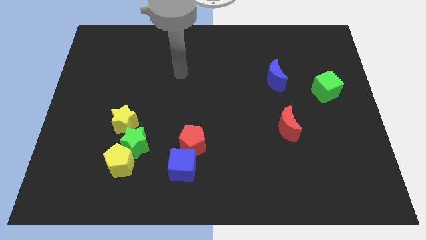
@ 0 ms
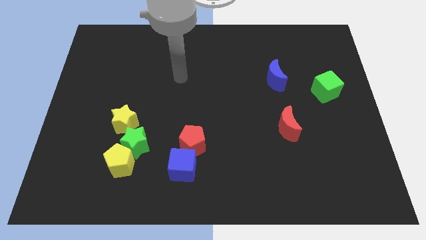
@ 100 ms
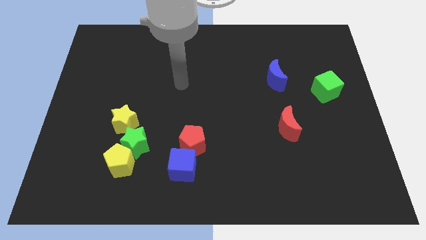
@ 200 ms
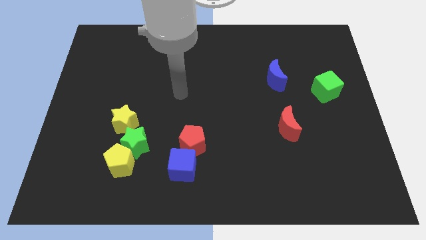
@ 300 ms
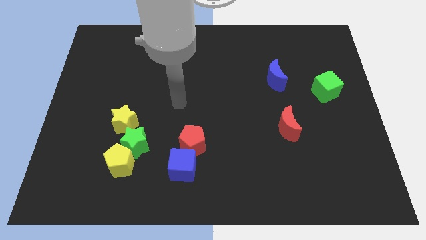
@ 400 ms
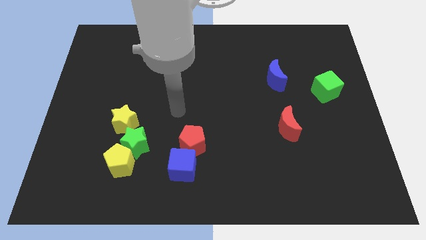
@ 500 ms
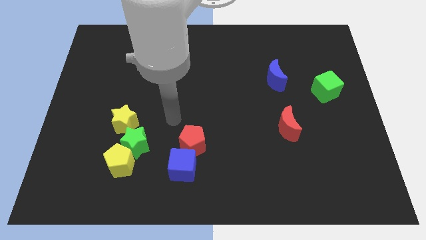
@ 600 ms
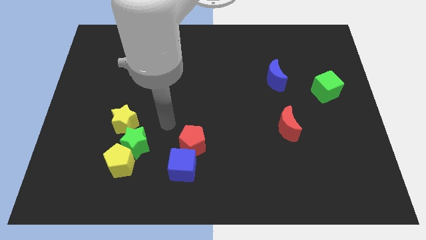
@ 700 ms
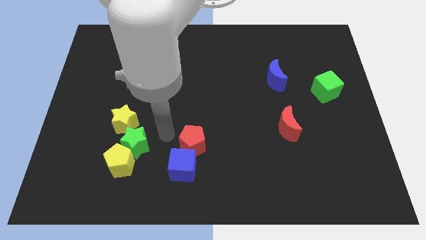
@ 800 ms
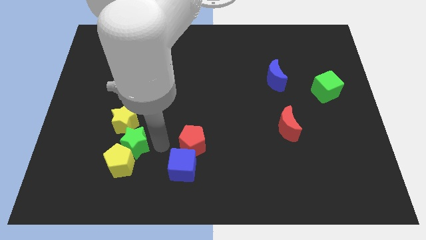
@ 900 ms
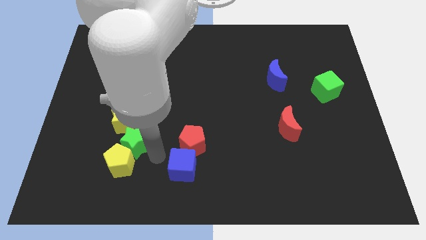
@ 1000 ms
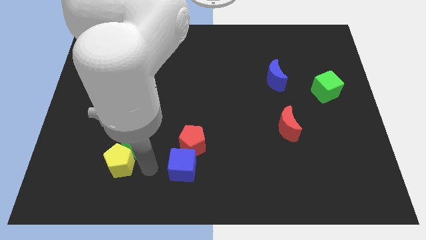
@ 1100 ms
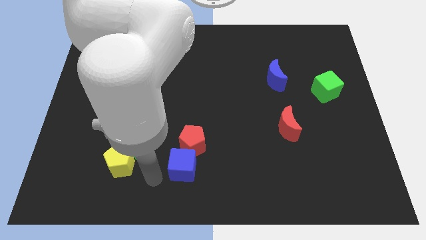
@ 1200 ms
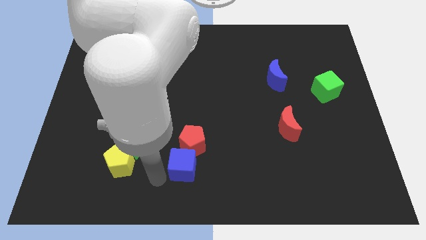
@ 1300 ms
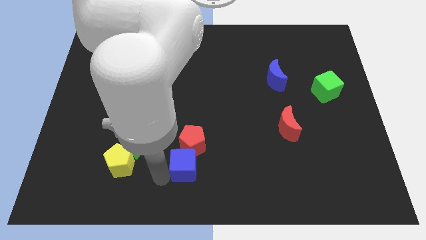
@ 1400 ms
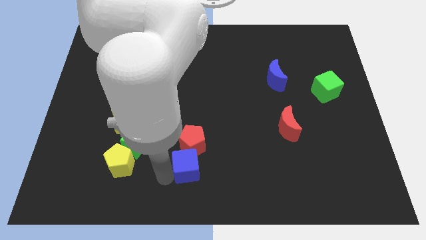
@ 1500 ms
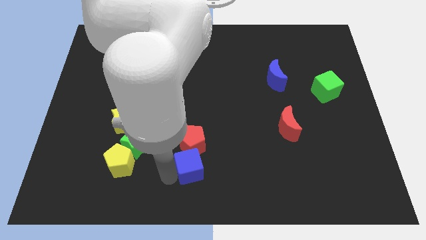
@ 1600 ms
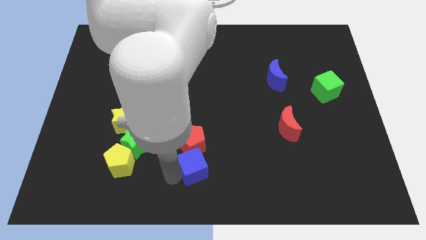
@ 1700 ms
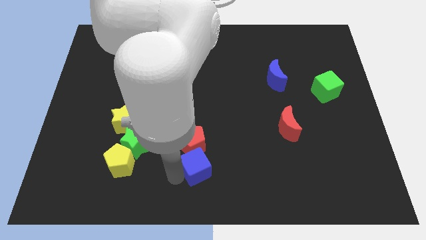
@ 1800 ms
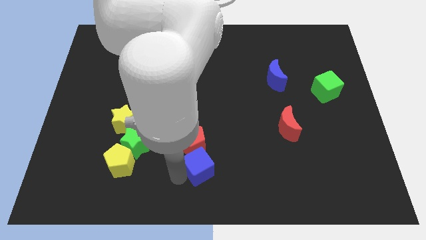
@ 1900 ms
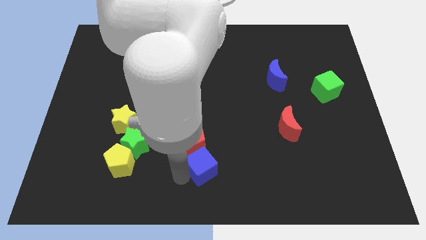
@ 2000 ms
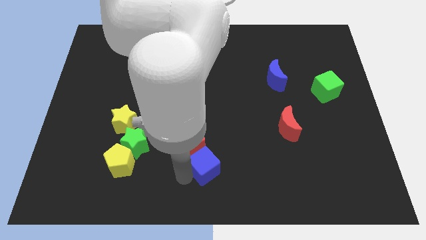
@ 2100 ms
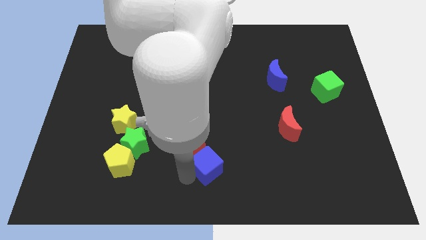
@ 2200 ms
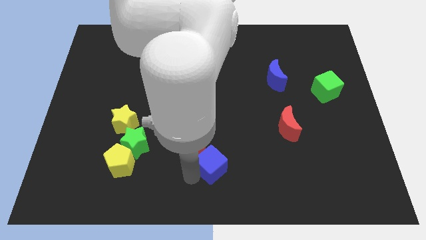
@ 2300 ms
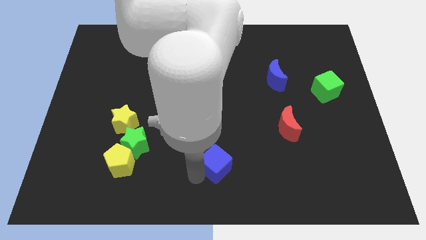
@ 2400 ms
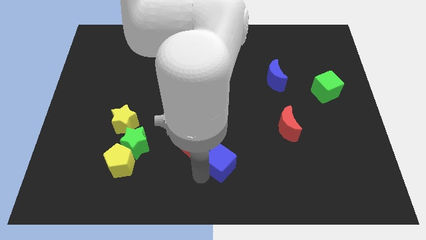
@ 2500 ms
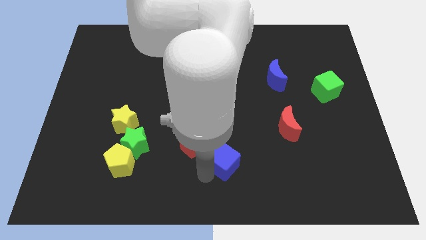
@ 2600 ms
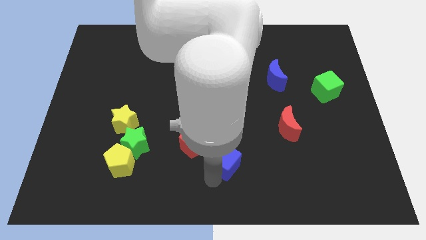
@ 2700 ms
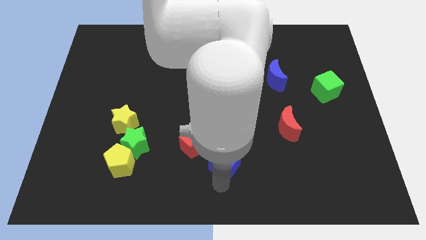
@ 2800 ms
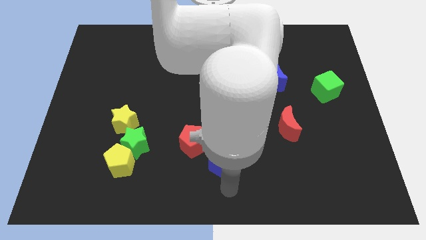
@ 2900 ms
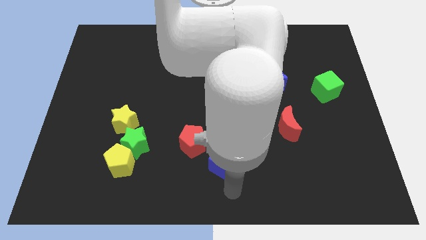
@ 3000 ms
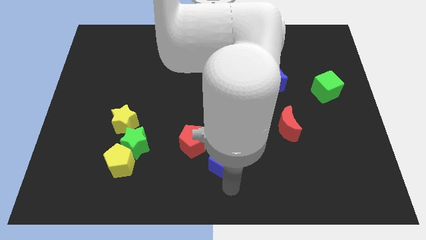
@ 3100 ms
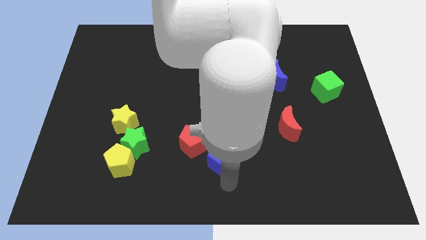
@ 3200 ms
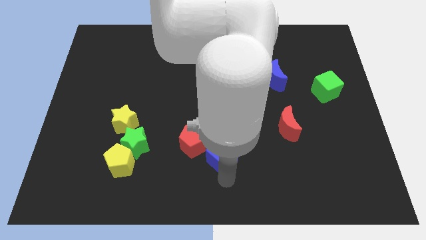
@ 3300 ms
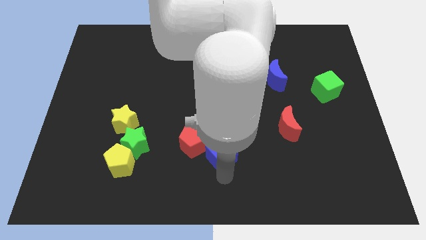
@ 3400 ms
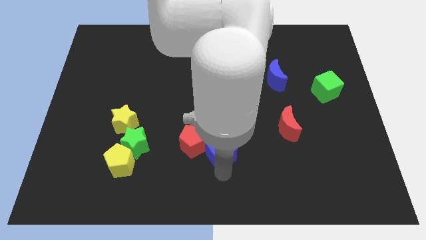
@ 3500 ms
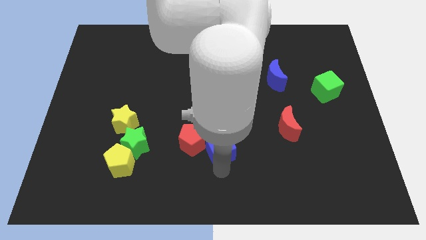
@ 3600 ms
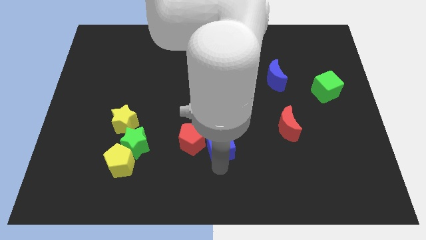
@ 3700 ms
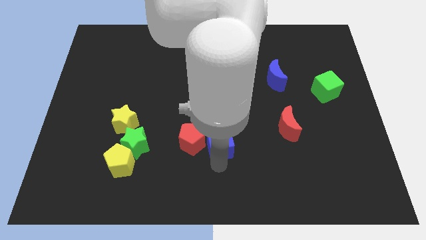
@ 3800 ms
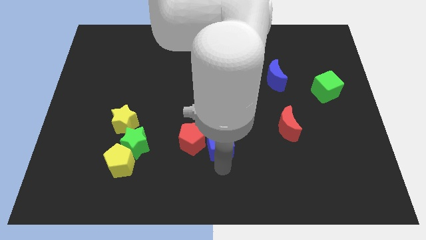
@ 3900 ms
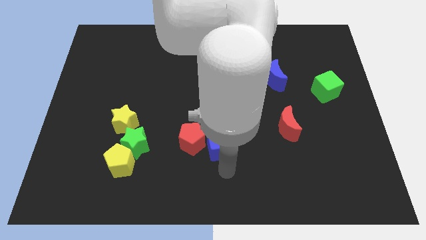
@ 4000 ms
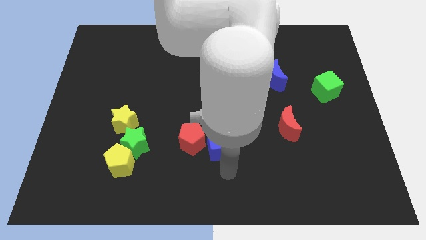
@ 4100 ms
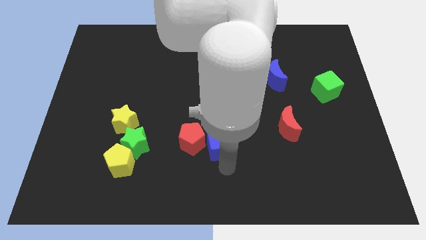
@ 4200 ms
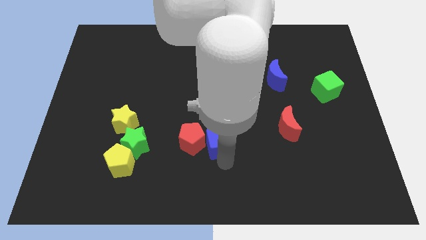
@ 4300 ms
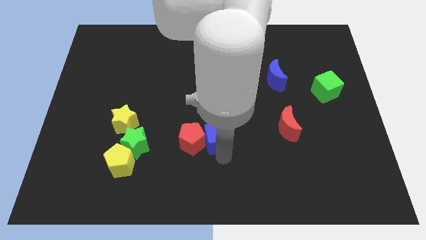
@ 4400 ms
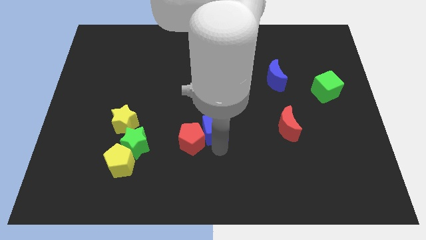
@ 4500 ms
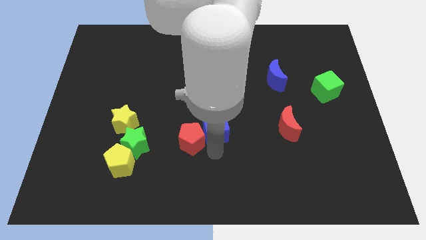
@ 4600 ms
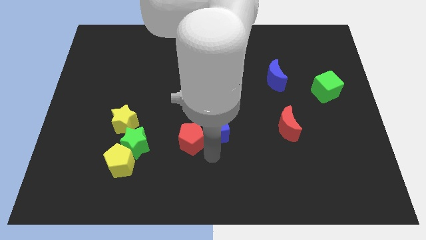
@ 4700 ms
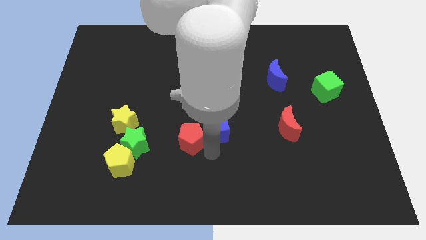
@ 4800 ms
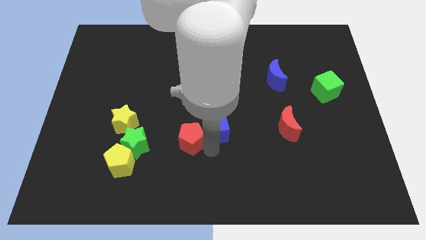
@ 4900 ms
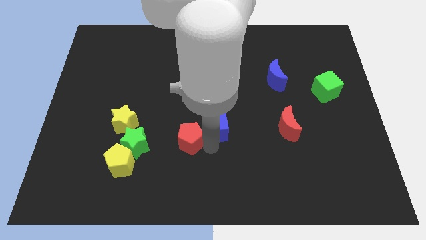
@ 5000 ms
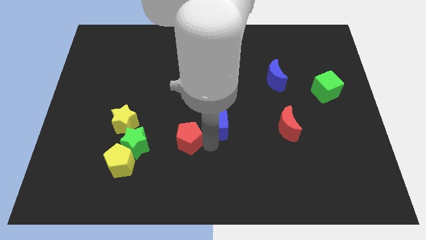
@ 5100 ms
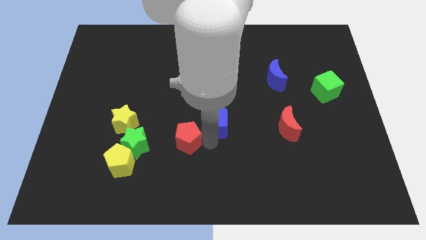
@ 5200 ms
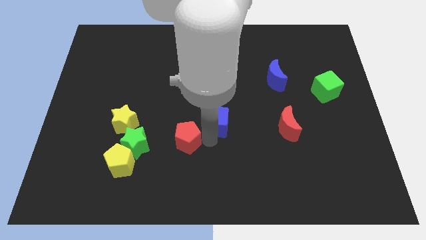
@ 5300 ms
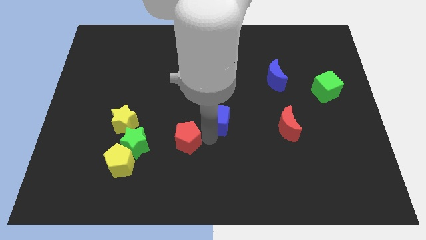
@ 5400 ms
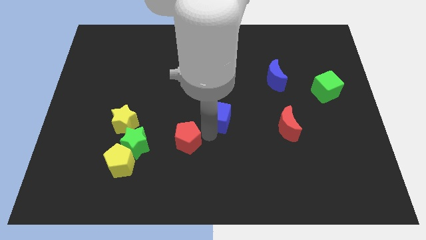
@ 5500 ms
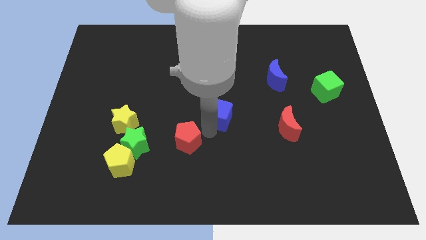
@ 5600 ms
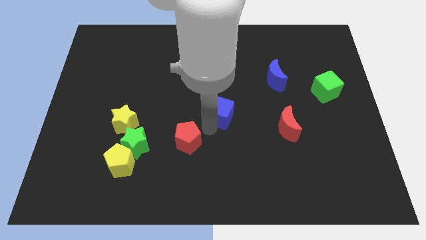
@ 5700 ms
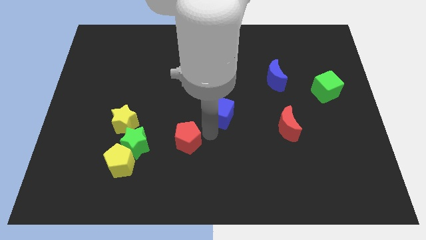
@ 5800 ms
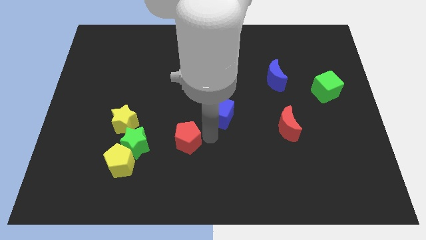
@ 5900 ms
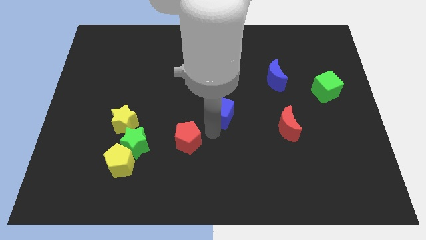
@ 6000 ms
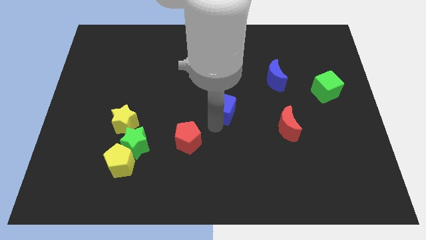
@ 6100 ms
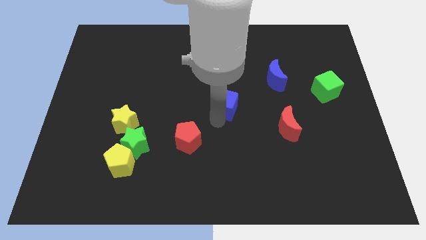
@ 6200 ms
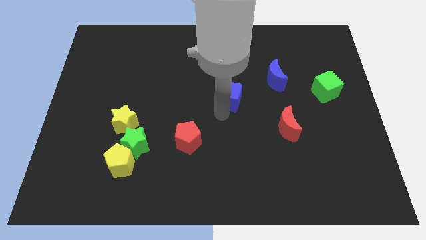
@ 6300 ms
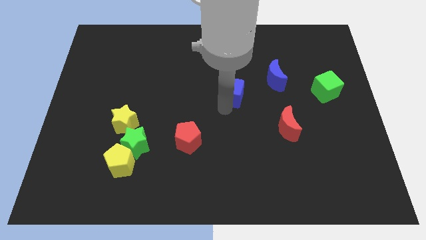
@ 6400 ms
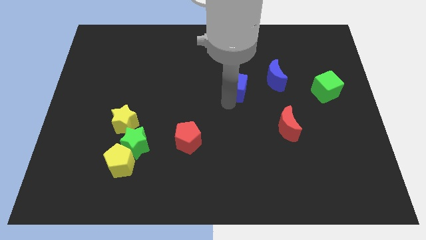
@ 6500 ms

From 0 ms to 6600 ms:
move the blue cube to the left side of the blue moon

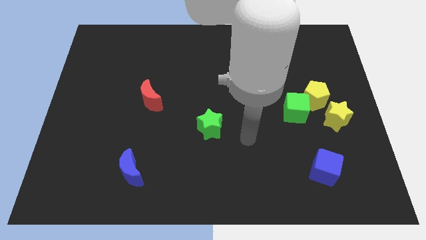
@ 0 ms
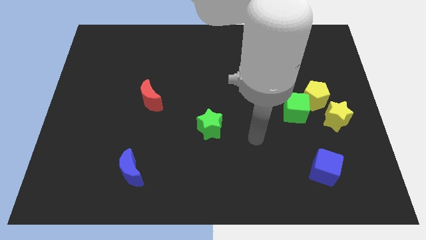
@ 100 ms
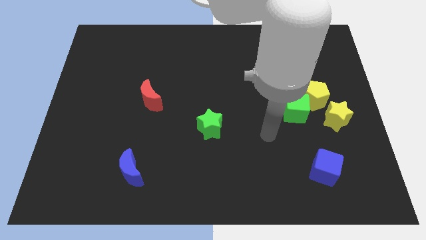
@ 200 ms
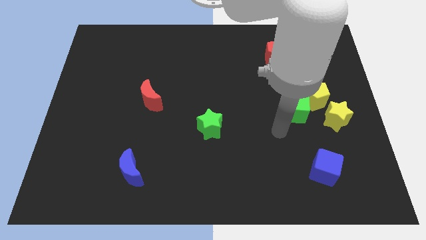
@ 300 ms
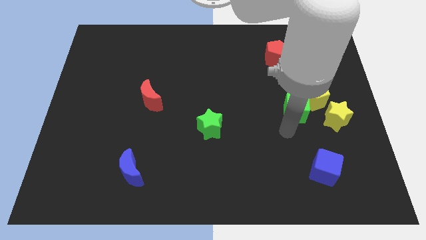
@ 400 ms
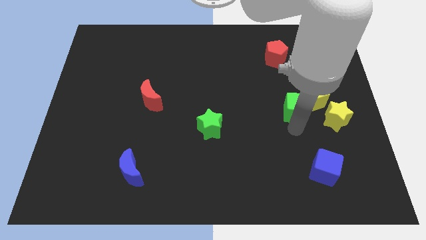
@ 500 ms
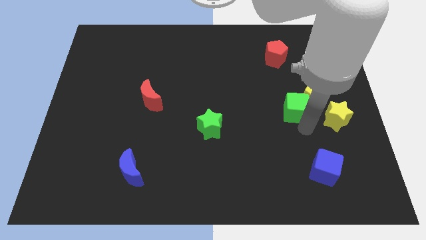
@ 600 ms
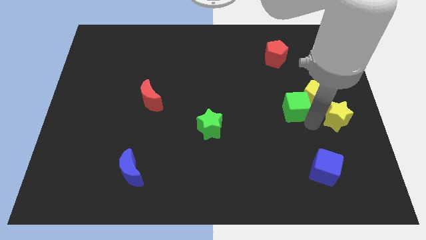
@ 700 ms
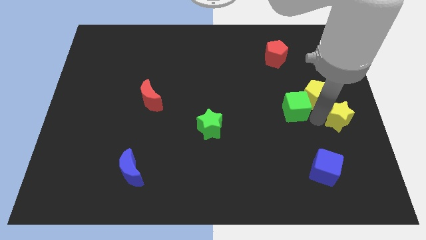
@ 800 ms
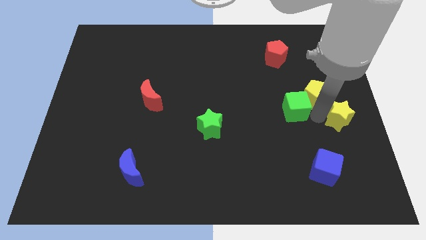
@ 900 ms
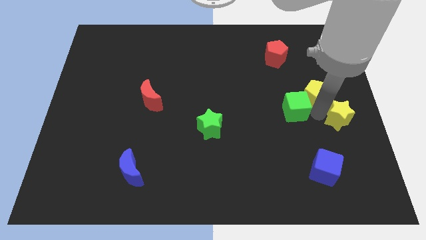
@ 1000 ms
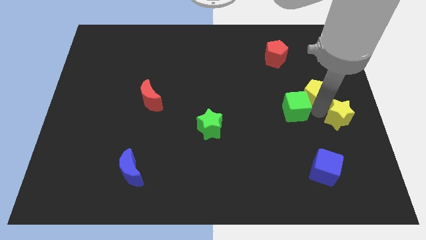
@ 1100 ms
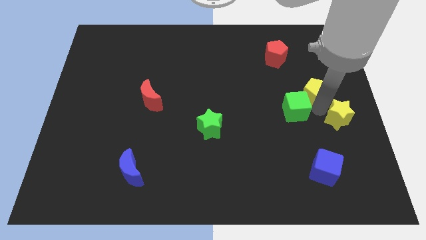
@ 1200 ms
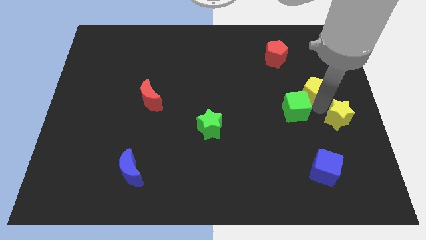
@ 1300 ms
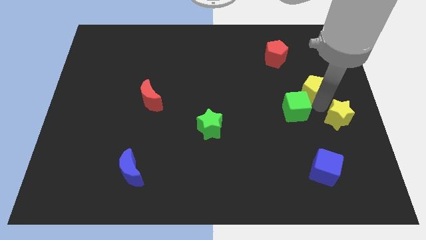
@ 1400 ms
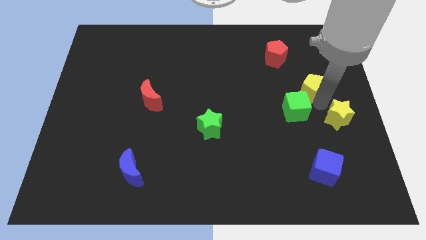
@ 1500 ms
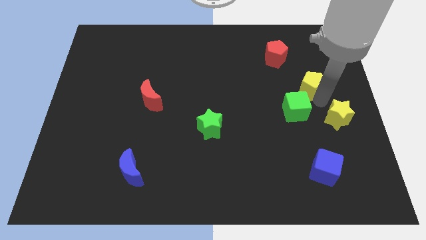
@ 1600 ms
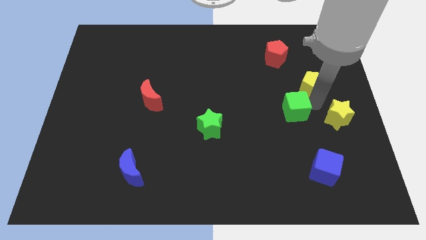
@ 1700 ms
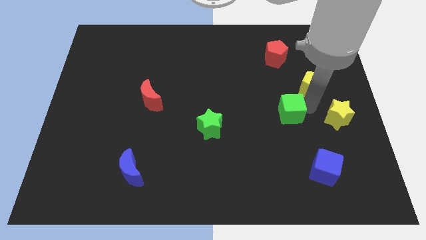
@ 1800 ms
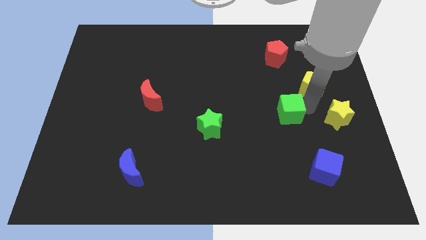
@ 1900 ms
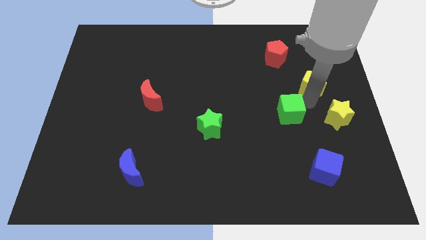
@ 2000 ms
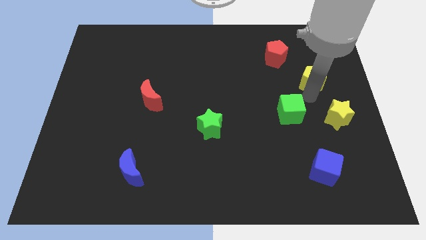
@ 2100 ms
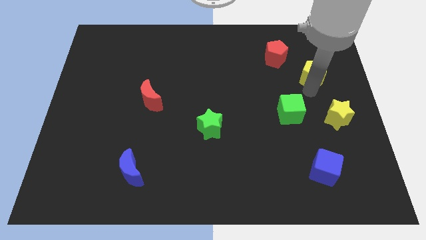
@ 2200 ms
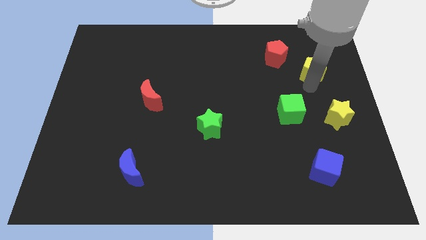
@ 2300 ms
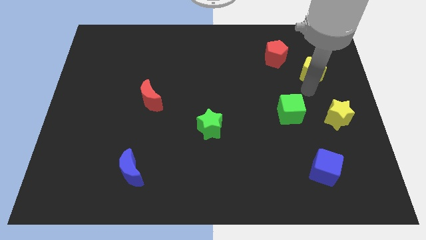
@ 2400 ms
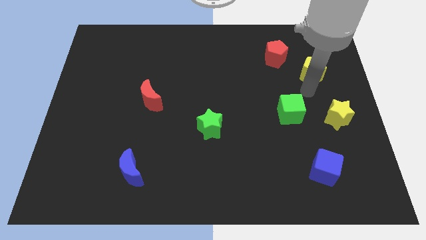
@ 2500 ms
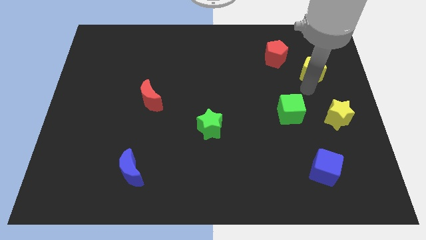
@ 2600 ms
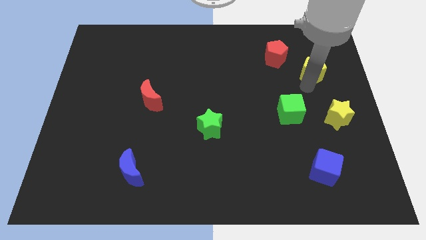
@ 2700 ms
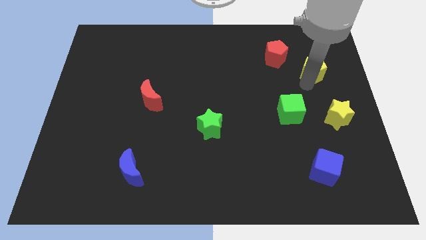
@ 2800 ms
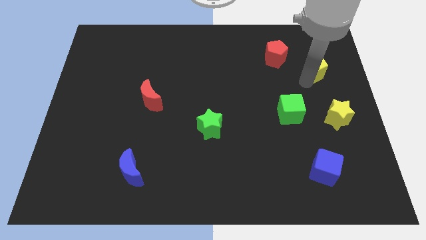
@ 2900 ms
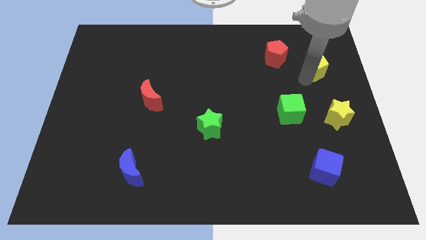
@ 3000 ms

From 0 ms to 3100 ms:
slide the yellow pentagon to the right side of the red pentagon
